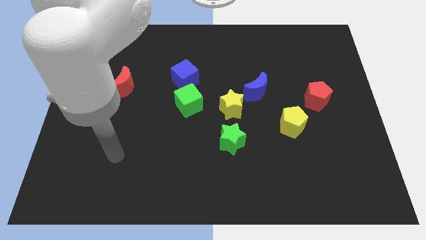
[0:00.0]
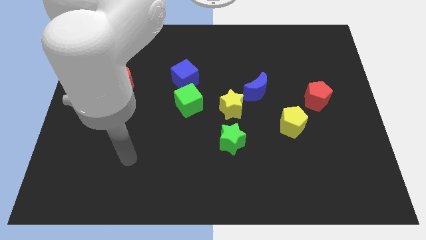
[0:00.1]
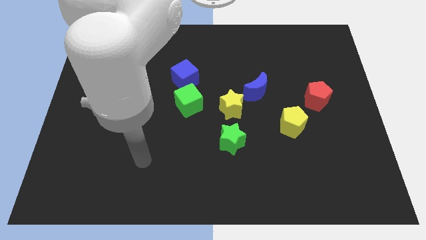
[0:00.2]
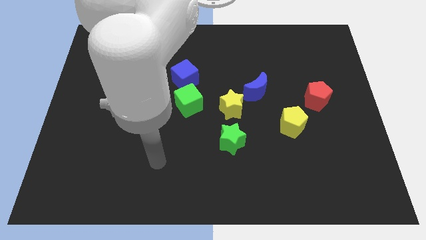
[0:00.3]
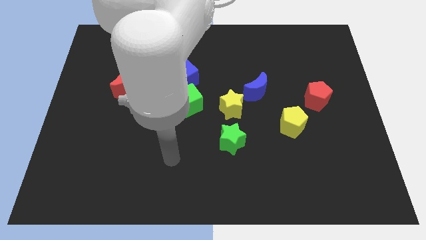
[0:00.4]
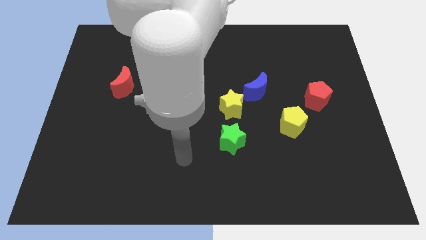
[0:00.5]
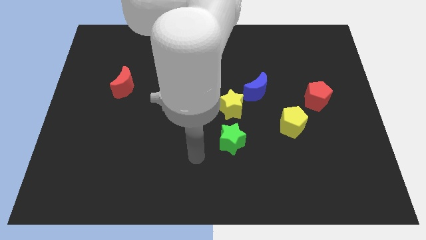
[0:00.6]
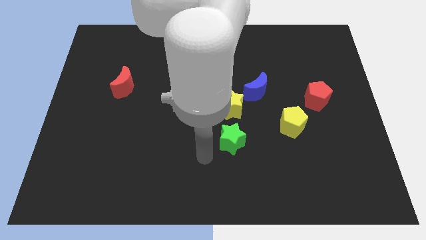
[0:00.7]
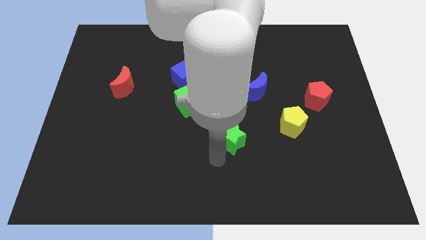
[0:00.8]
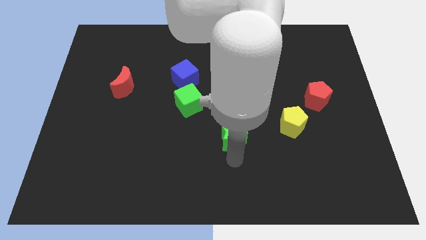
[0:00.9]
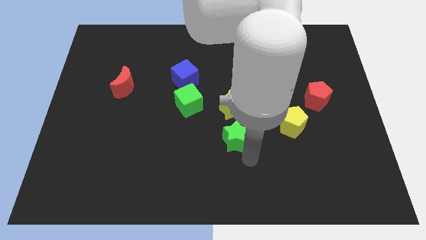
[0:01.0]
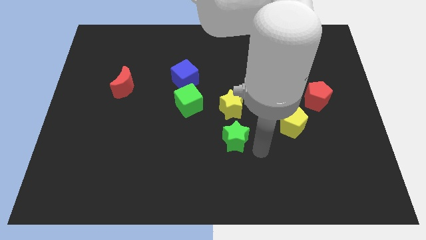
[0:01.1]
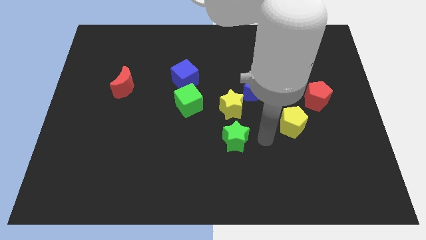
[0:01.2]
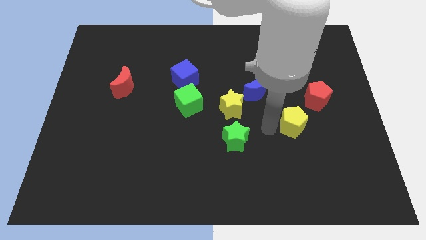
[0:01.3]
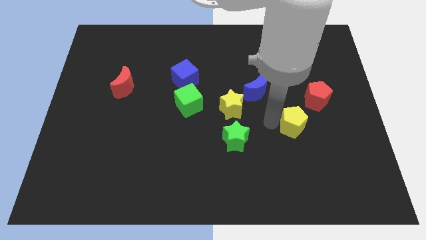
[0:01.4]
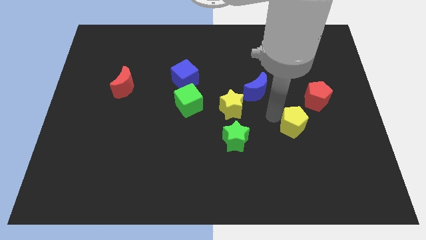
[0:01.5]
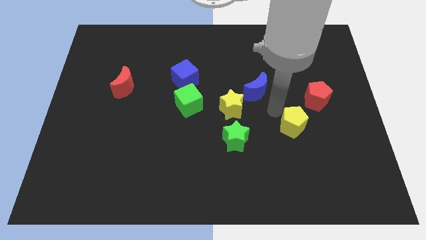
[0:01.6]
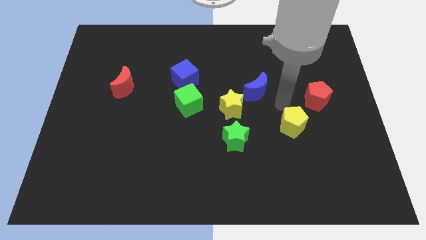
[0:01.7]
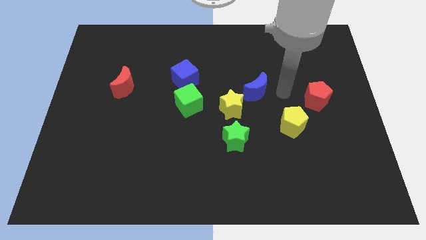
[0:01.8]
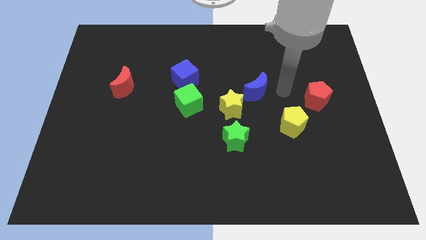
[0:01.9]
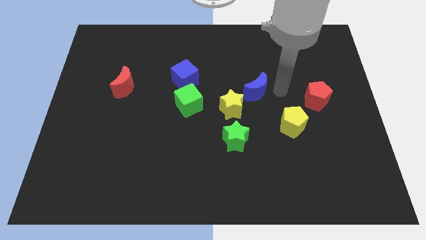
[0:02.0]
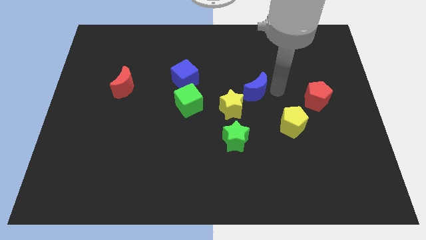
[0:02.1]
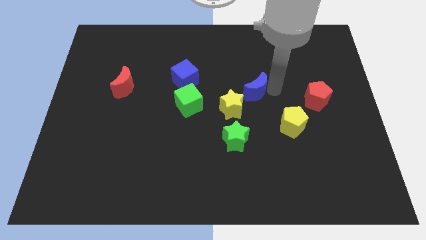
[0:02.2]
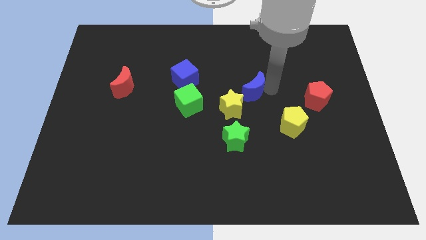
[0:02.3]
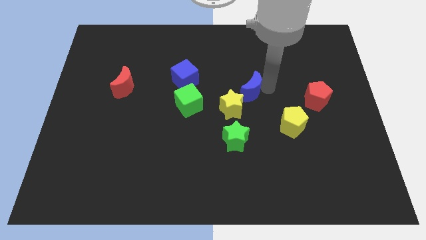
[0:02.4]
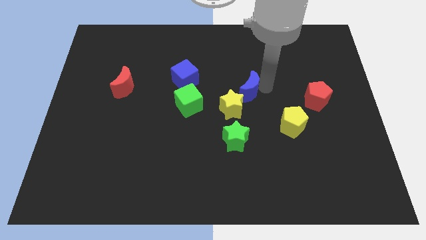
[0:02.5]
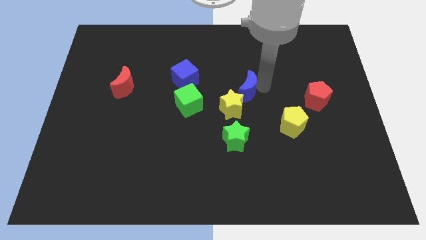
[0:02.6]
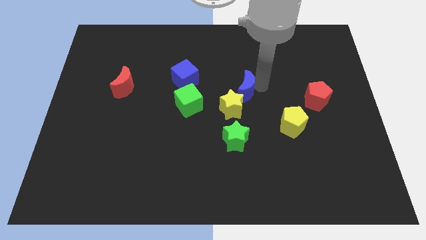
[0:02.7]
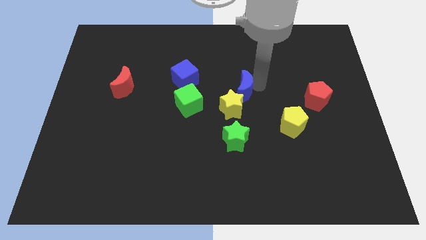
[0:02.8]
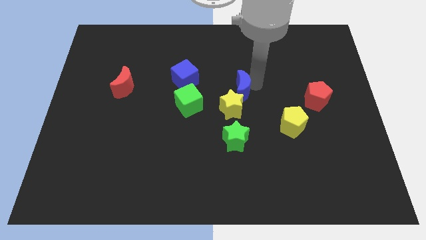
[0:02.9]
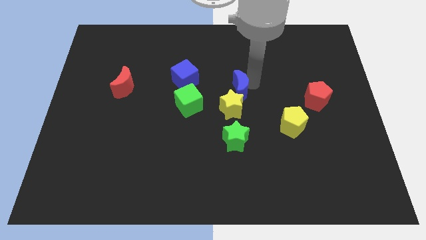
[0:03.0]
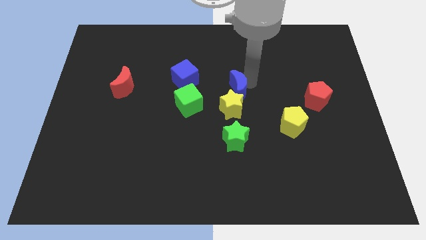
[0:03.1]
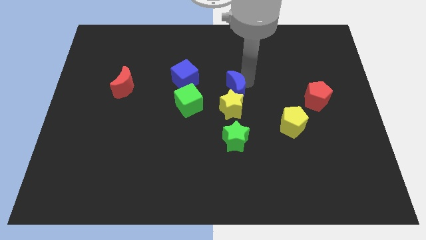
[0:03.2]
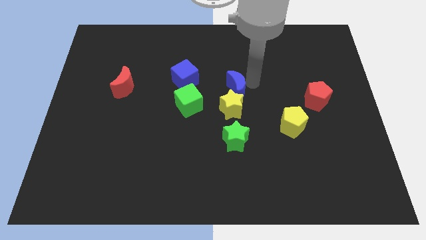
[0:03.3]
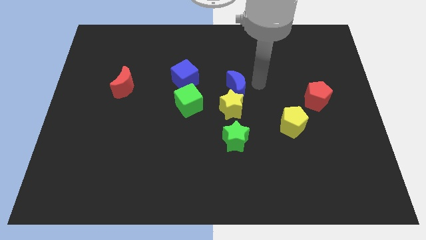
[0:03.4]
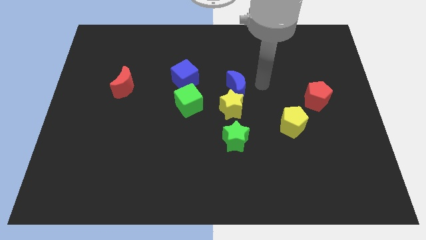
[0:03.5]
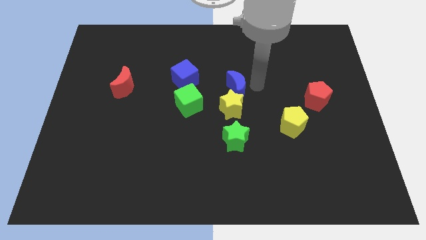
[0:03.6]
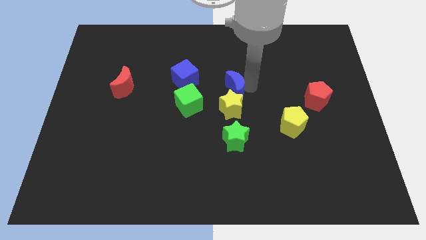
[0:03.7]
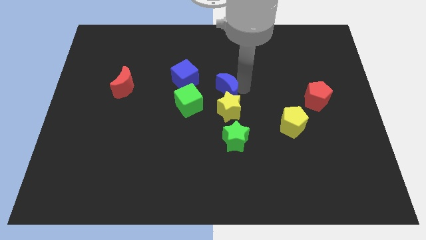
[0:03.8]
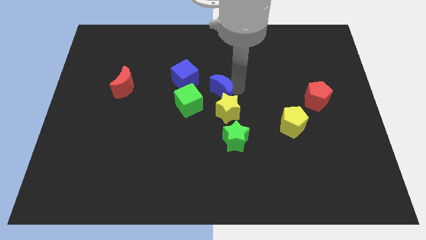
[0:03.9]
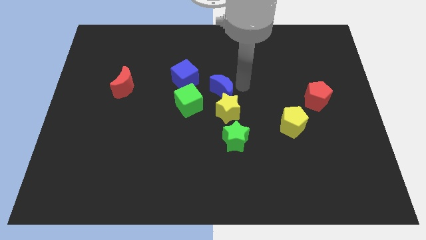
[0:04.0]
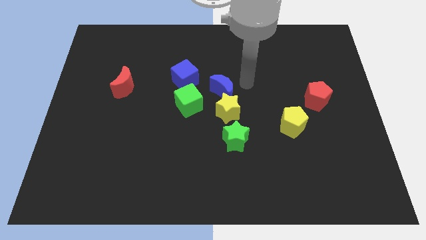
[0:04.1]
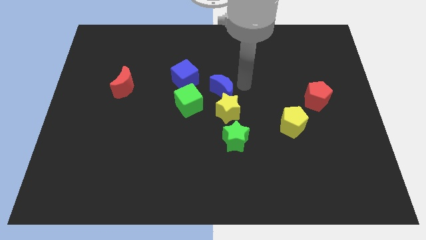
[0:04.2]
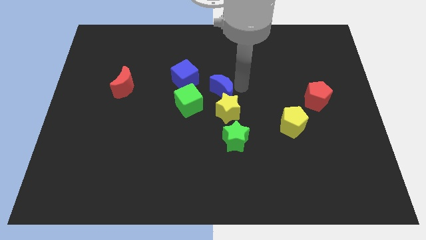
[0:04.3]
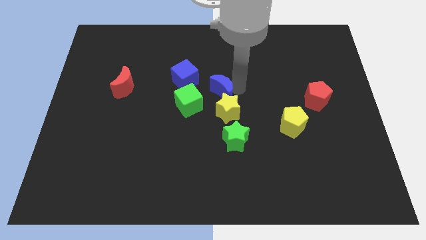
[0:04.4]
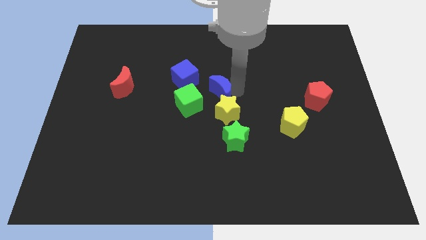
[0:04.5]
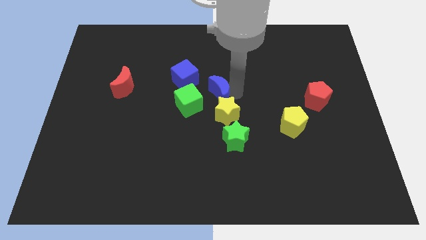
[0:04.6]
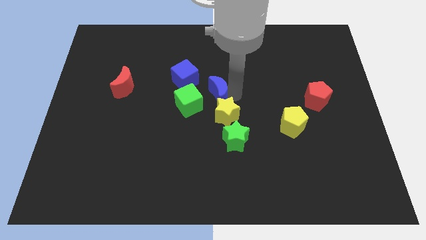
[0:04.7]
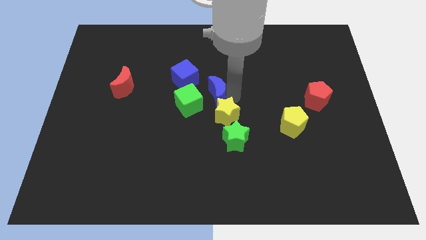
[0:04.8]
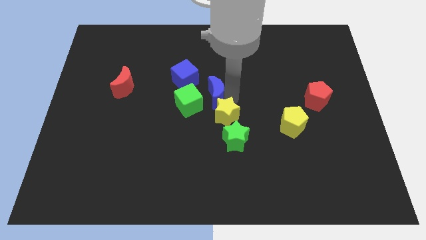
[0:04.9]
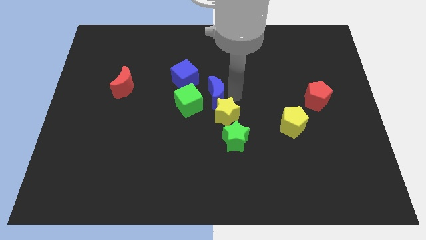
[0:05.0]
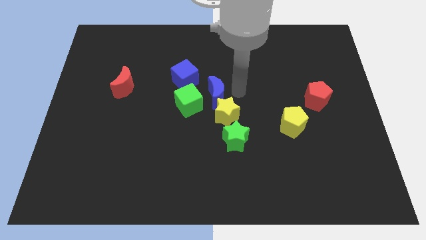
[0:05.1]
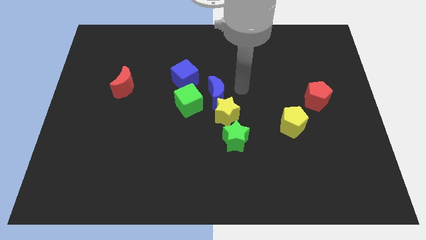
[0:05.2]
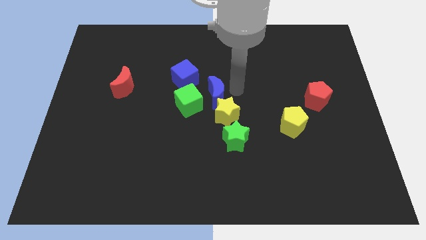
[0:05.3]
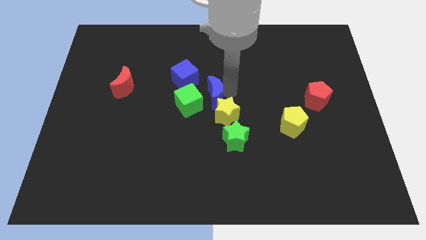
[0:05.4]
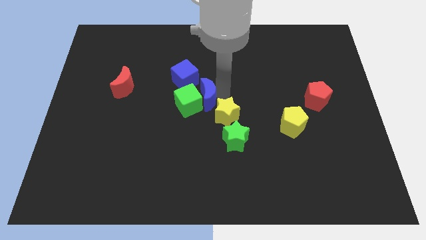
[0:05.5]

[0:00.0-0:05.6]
slide the blue moon close to the green cube
